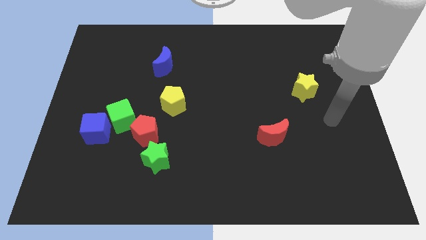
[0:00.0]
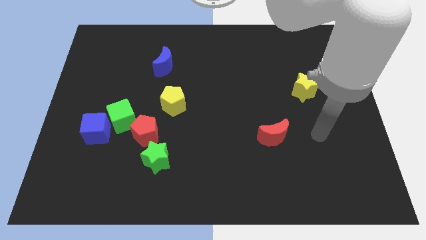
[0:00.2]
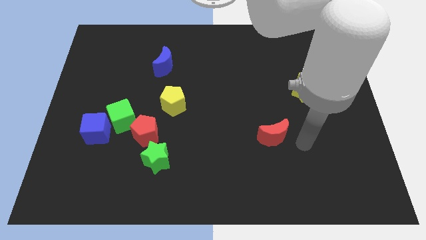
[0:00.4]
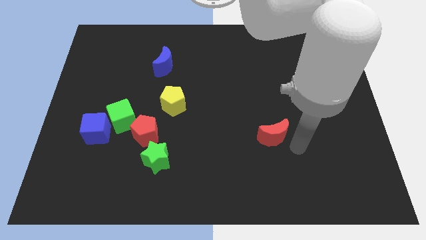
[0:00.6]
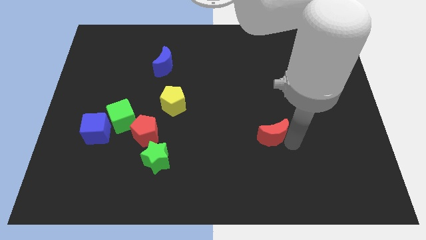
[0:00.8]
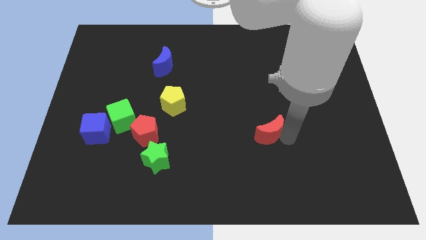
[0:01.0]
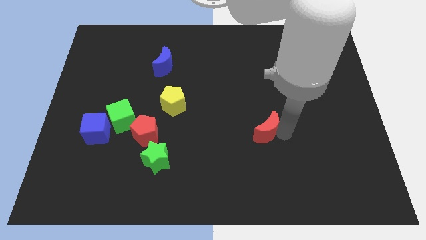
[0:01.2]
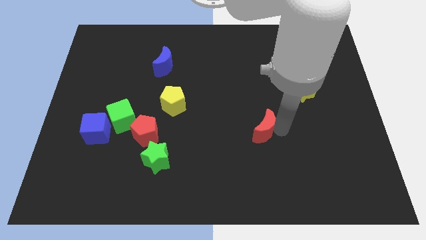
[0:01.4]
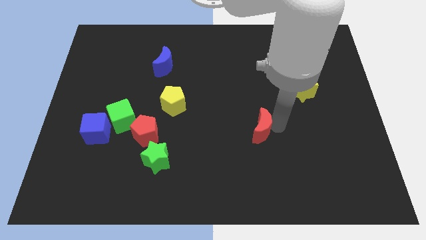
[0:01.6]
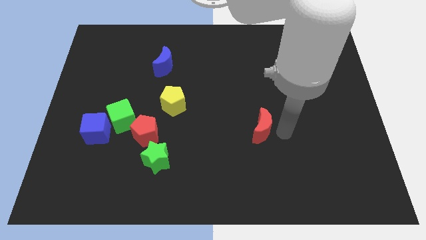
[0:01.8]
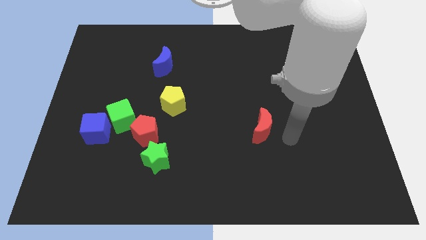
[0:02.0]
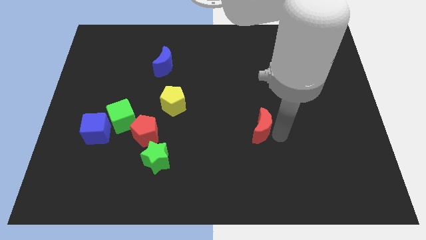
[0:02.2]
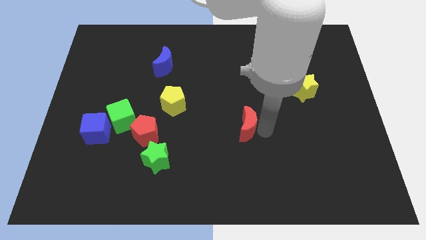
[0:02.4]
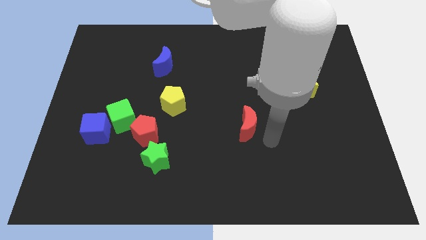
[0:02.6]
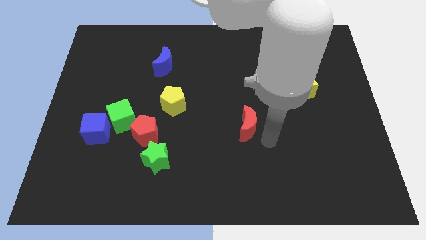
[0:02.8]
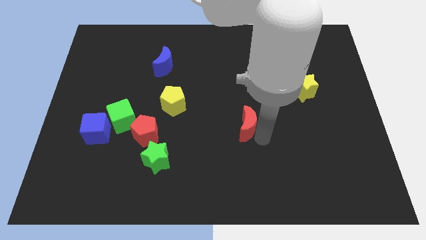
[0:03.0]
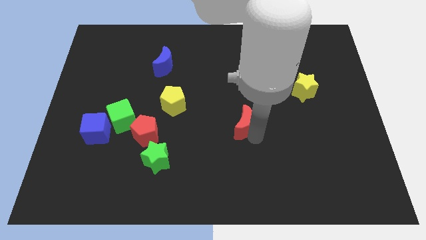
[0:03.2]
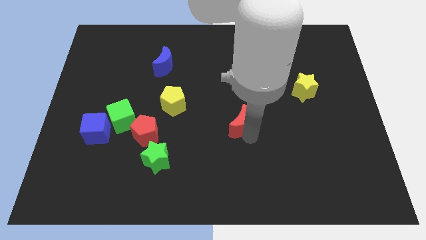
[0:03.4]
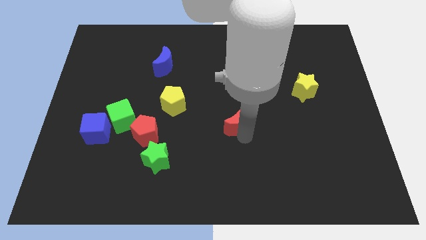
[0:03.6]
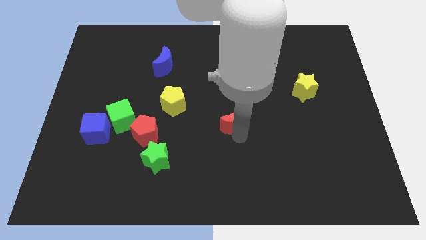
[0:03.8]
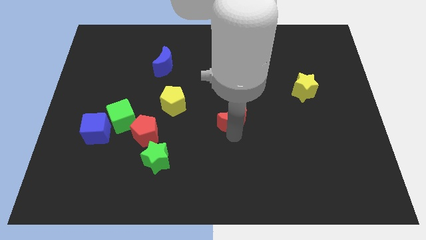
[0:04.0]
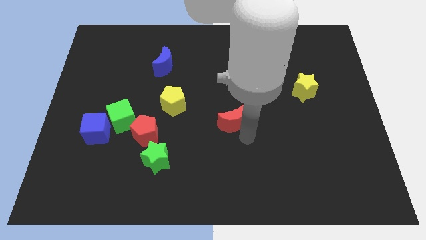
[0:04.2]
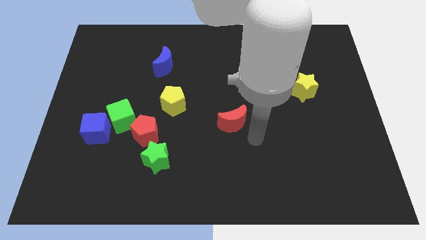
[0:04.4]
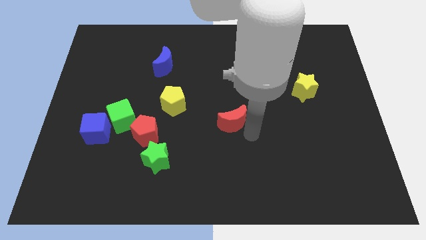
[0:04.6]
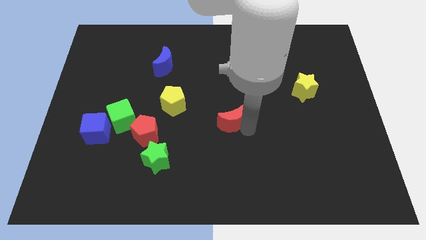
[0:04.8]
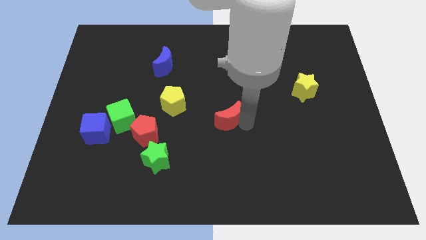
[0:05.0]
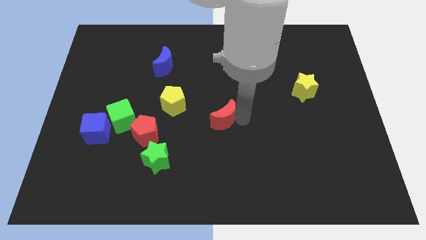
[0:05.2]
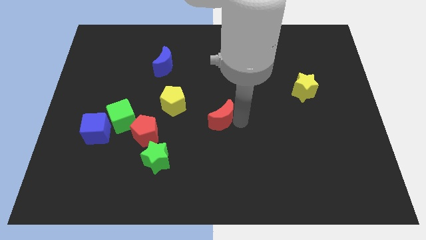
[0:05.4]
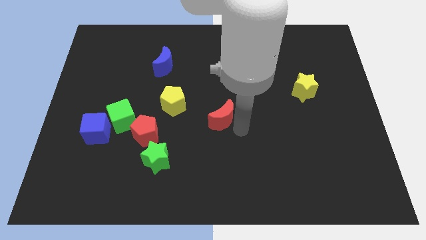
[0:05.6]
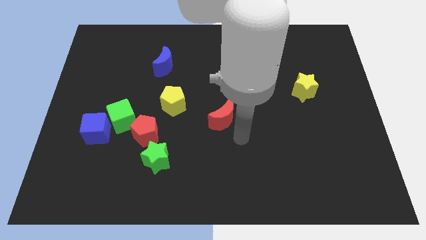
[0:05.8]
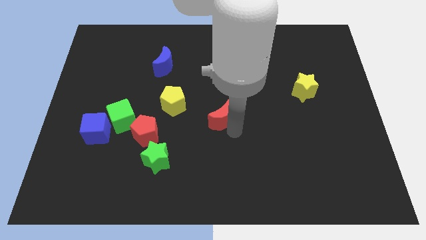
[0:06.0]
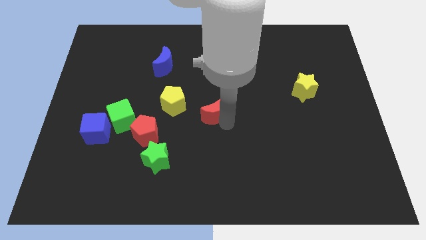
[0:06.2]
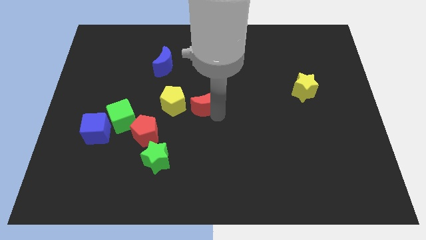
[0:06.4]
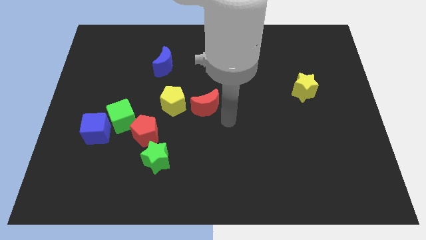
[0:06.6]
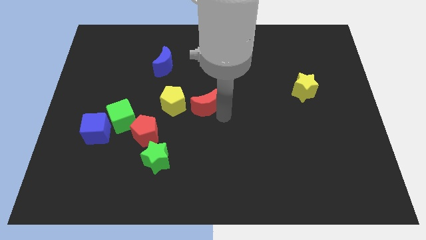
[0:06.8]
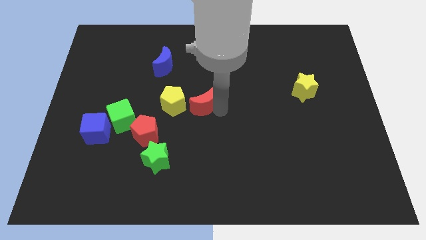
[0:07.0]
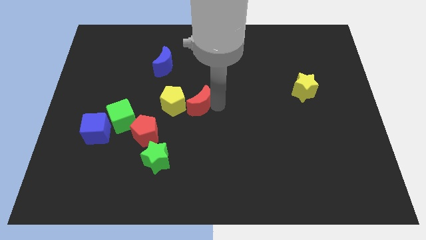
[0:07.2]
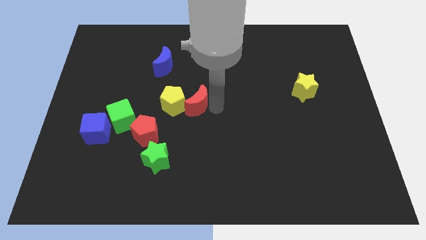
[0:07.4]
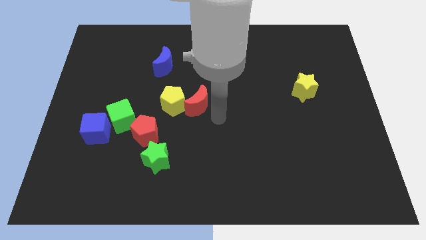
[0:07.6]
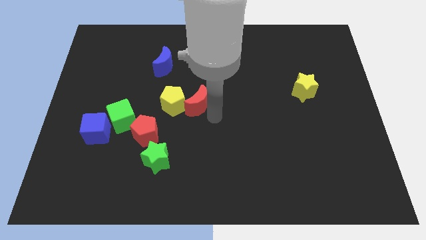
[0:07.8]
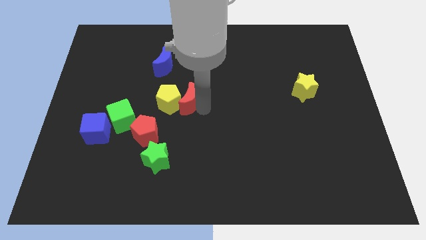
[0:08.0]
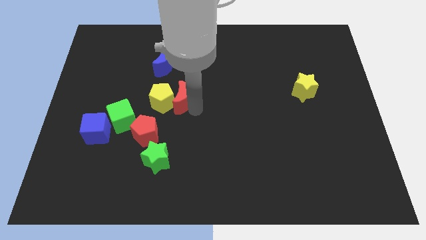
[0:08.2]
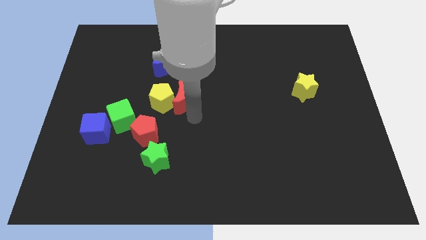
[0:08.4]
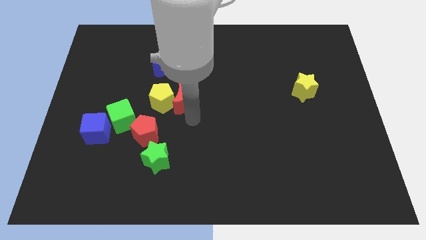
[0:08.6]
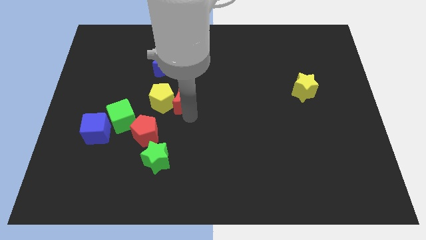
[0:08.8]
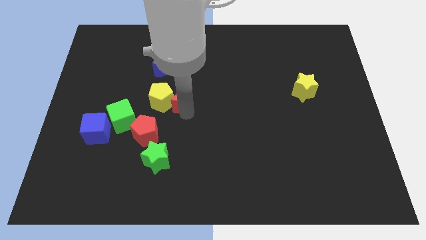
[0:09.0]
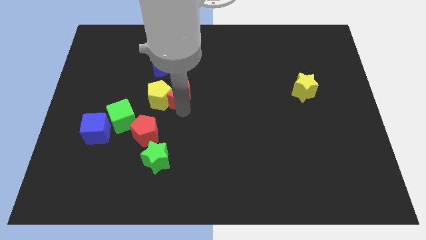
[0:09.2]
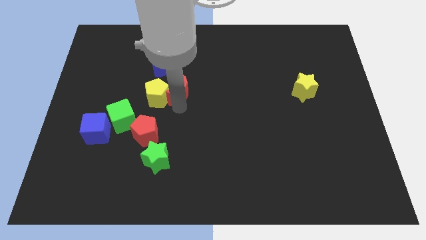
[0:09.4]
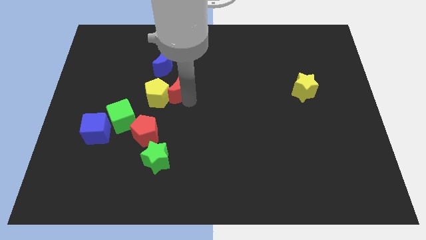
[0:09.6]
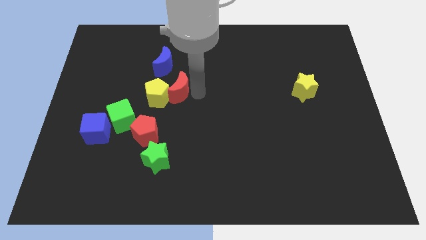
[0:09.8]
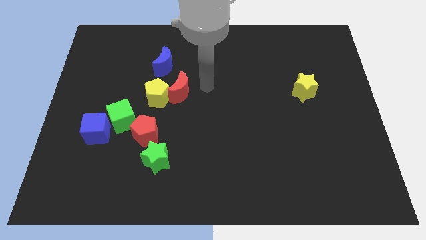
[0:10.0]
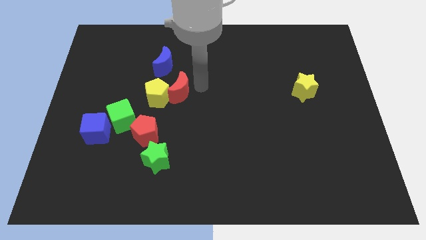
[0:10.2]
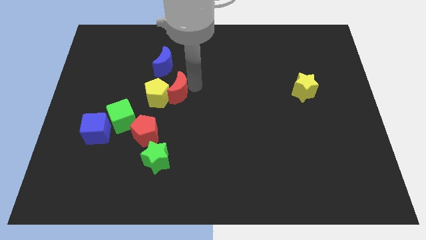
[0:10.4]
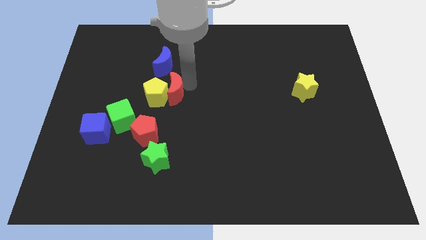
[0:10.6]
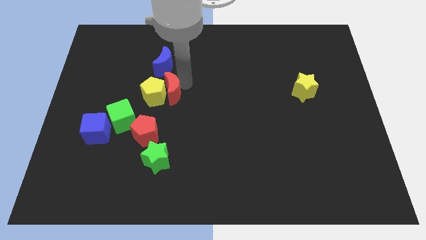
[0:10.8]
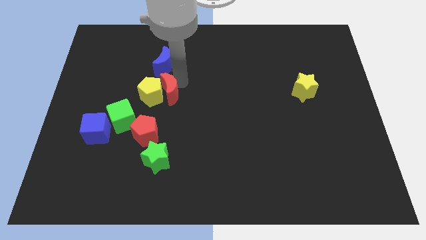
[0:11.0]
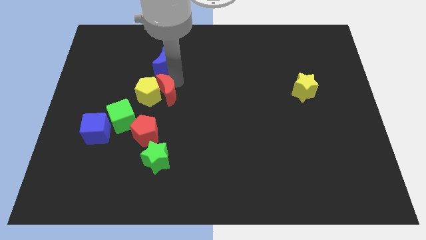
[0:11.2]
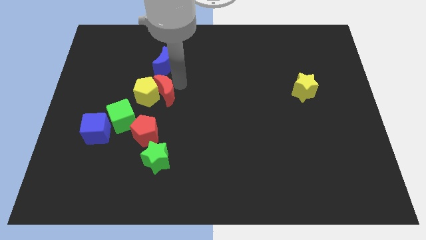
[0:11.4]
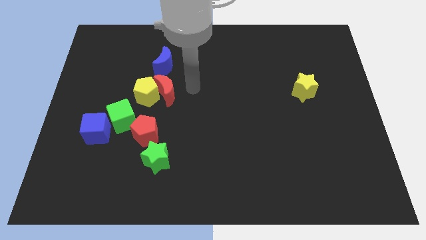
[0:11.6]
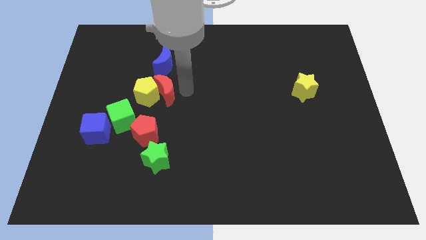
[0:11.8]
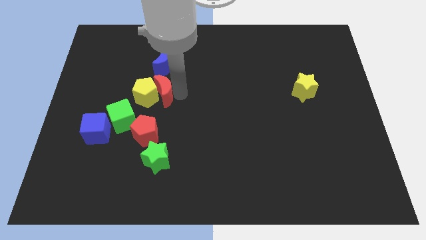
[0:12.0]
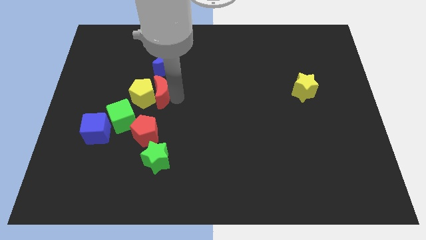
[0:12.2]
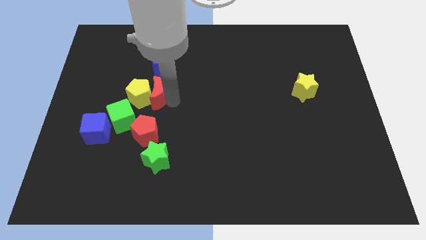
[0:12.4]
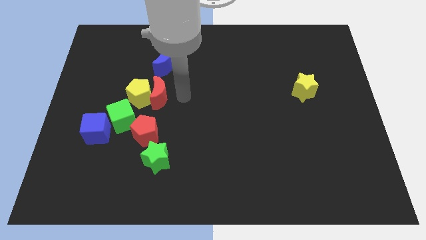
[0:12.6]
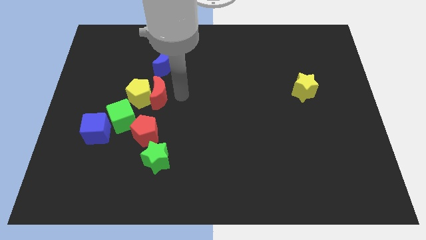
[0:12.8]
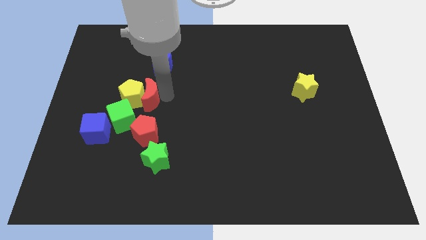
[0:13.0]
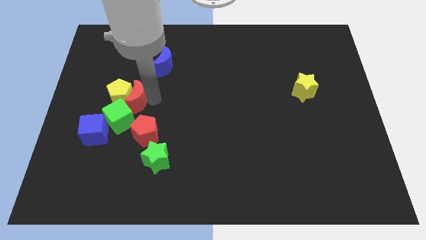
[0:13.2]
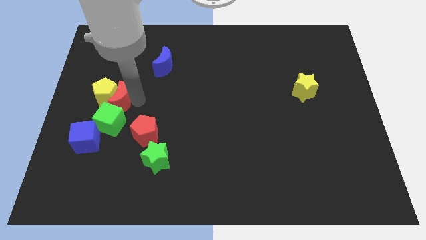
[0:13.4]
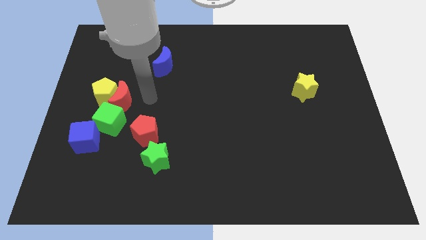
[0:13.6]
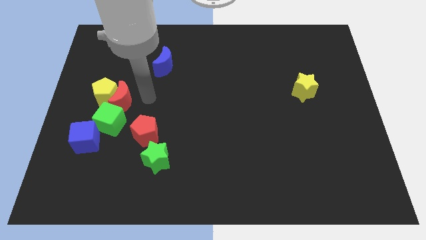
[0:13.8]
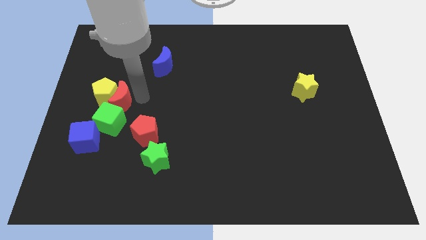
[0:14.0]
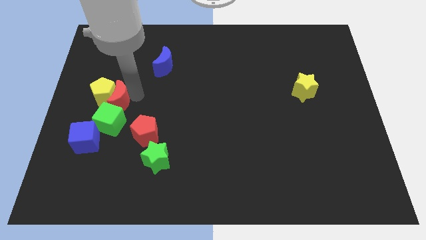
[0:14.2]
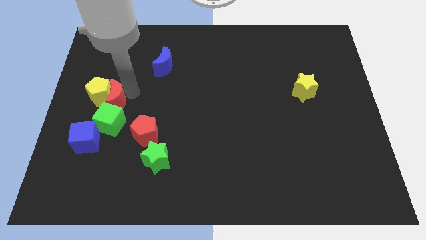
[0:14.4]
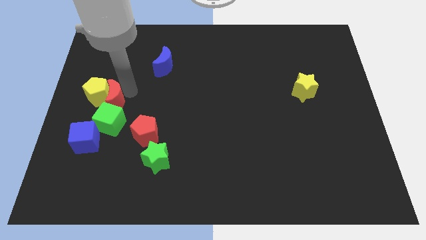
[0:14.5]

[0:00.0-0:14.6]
push the red moon to the top left side of the green cube

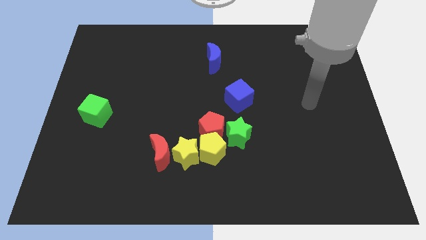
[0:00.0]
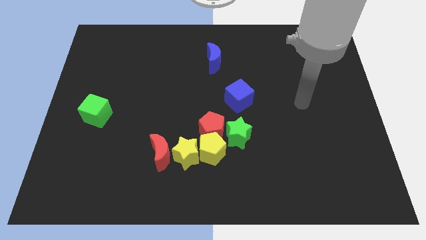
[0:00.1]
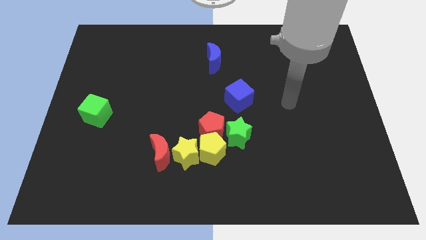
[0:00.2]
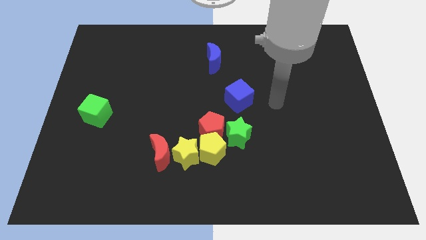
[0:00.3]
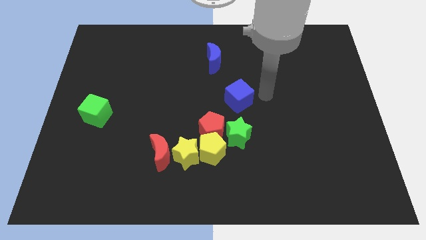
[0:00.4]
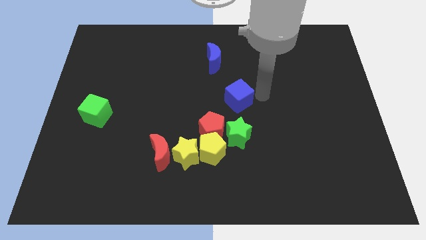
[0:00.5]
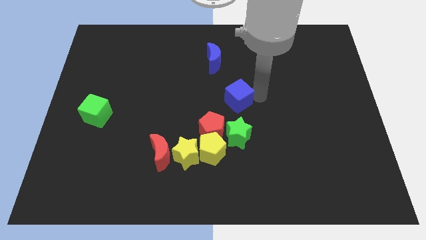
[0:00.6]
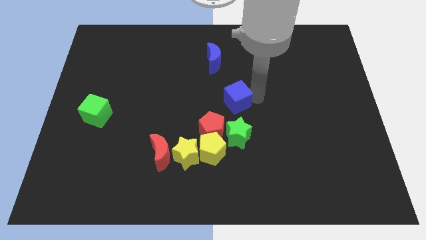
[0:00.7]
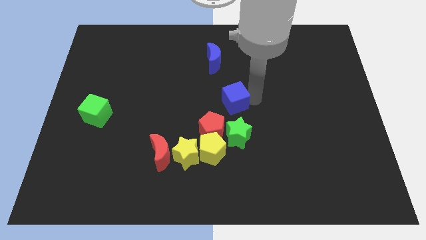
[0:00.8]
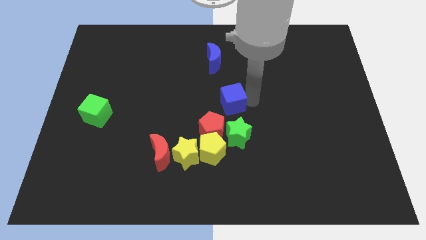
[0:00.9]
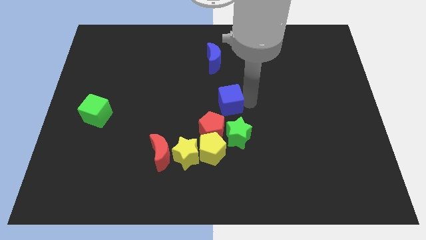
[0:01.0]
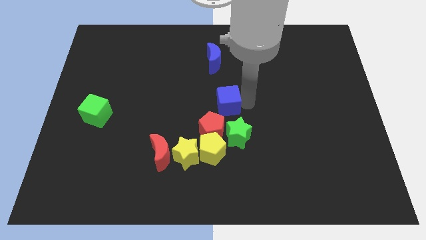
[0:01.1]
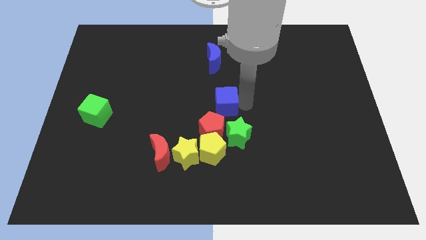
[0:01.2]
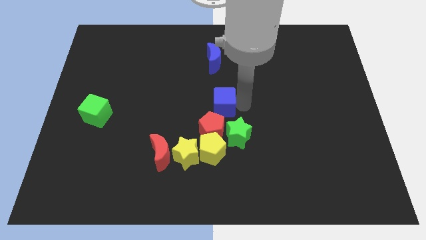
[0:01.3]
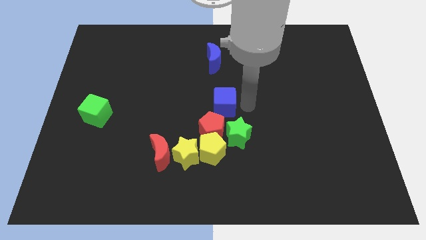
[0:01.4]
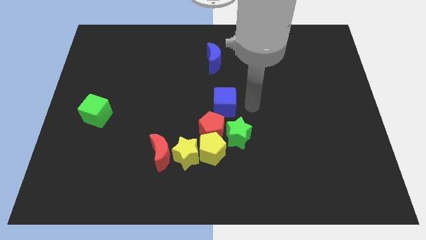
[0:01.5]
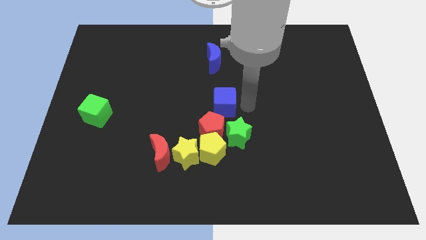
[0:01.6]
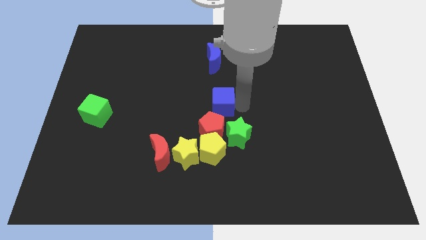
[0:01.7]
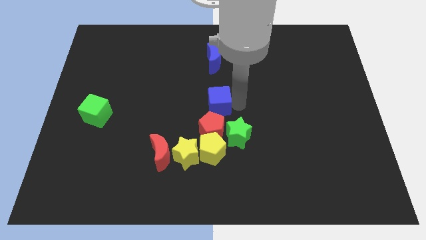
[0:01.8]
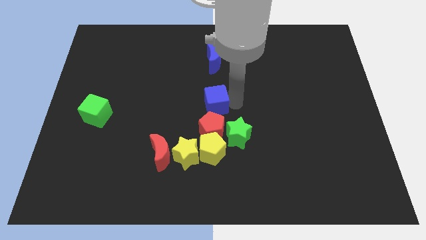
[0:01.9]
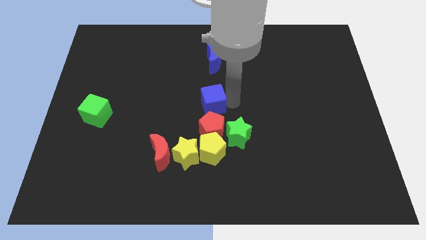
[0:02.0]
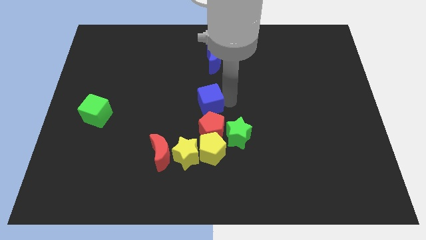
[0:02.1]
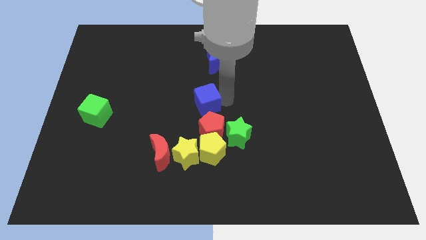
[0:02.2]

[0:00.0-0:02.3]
put the blue cube to the top left of the red pentagon
